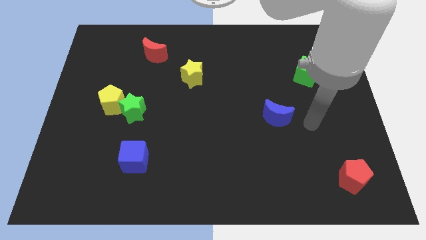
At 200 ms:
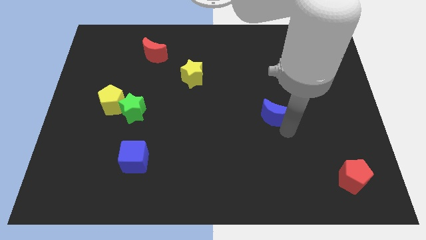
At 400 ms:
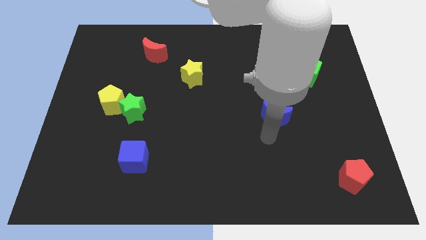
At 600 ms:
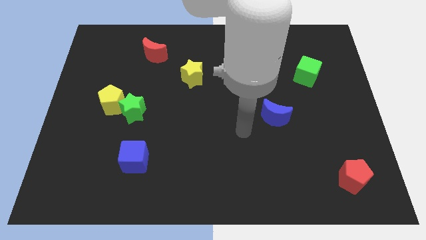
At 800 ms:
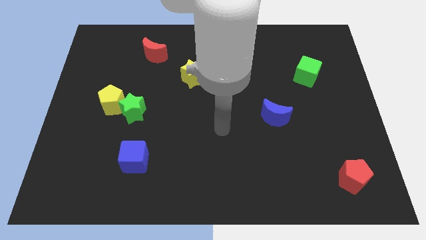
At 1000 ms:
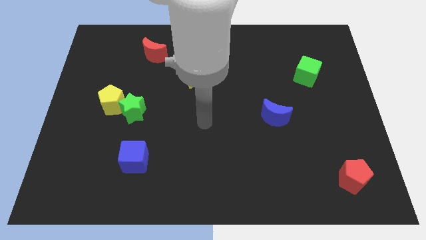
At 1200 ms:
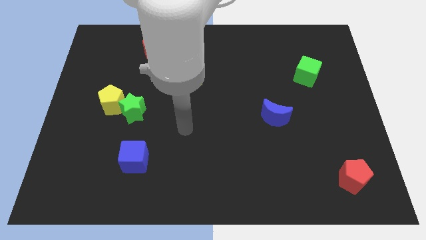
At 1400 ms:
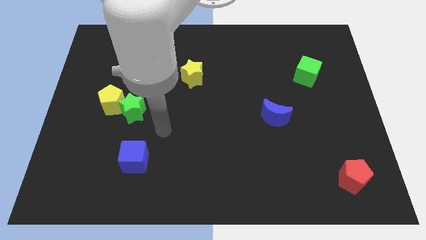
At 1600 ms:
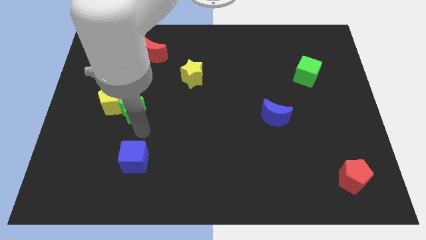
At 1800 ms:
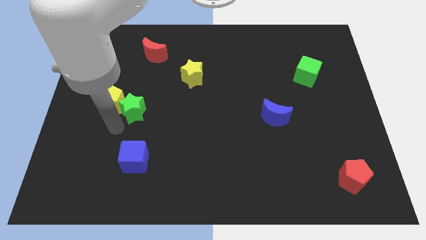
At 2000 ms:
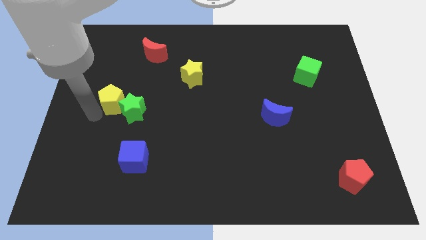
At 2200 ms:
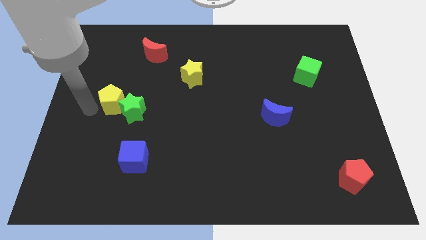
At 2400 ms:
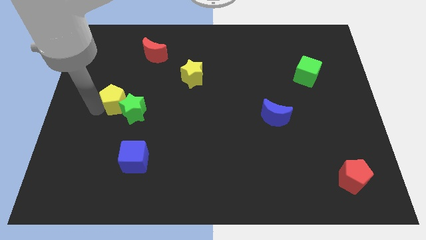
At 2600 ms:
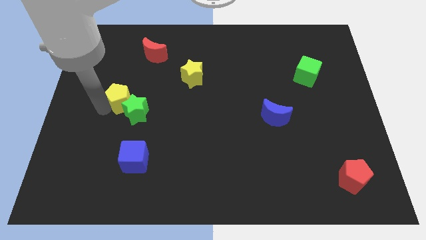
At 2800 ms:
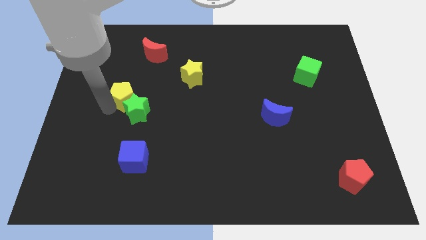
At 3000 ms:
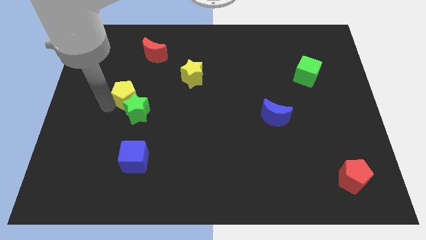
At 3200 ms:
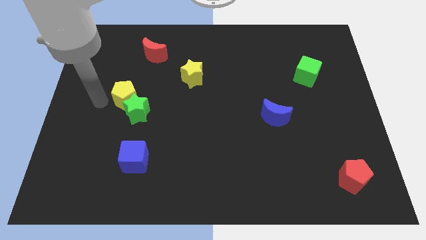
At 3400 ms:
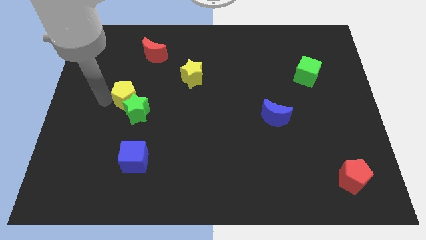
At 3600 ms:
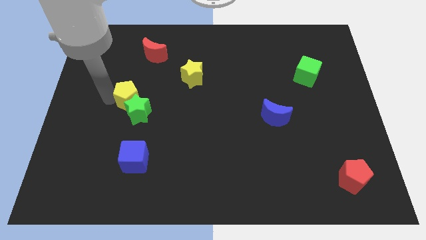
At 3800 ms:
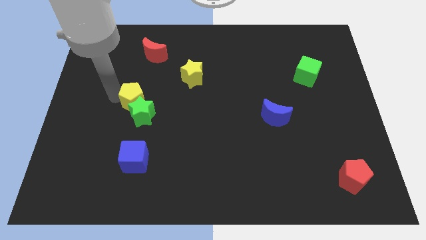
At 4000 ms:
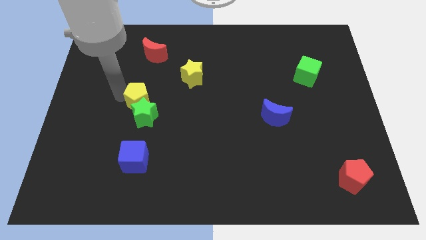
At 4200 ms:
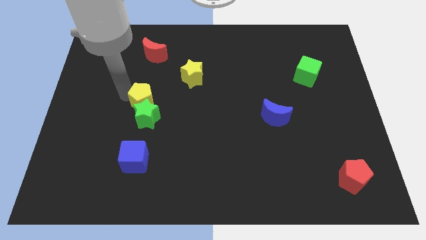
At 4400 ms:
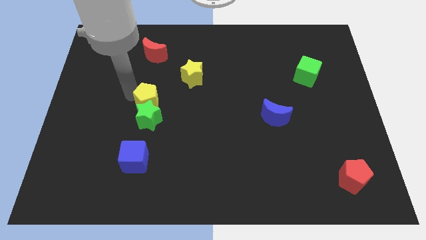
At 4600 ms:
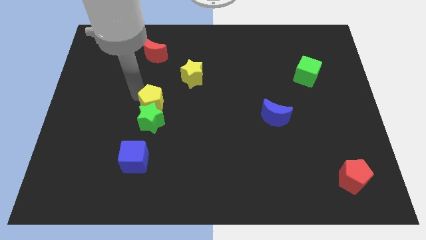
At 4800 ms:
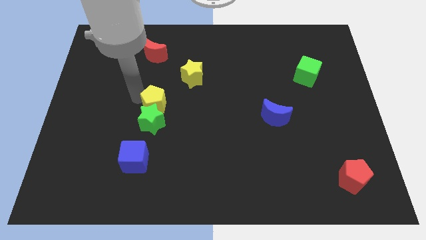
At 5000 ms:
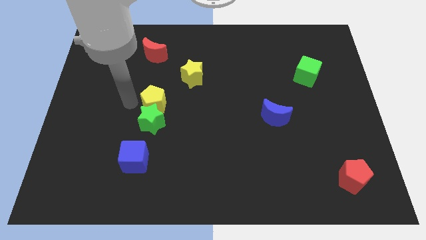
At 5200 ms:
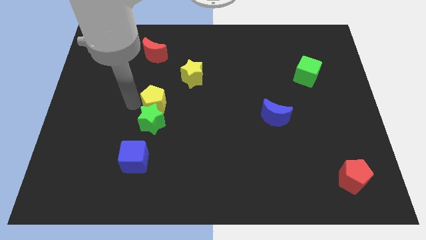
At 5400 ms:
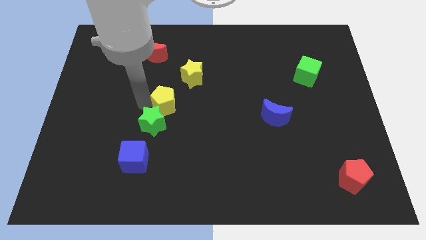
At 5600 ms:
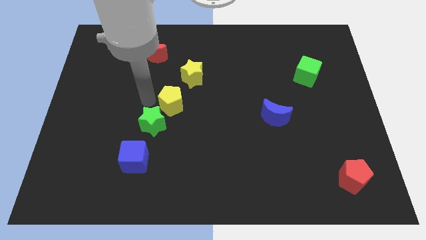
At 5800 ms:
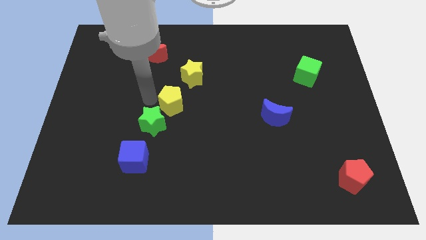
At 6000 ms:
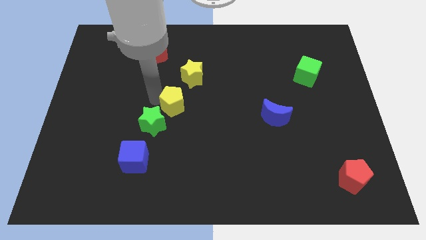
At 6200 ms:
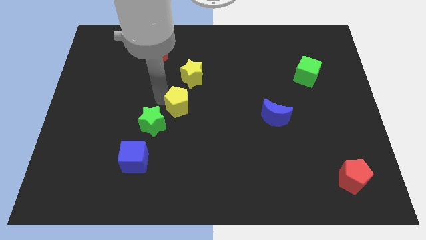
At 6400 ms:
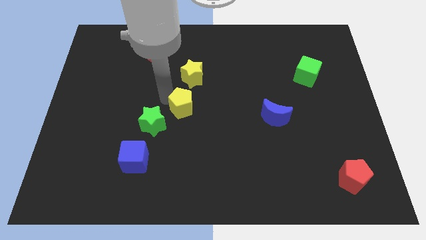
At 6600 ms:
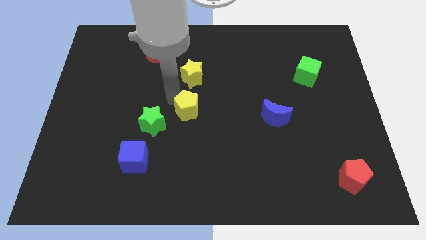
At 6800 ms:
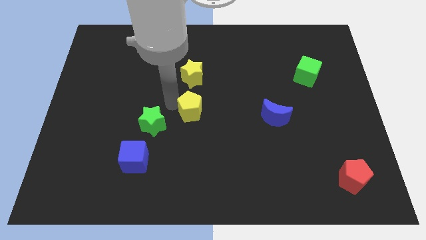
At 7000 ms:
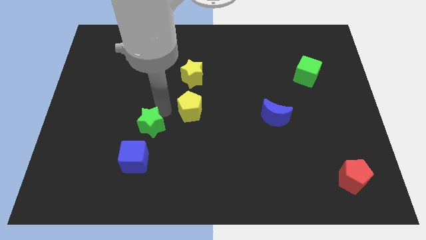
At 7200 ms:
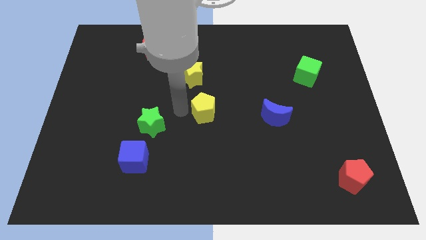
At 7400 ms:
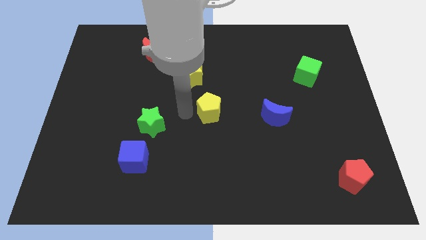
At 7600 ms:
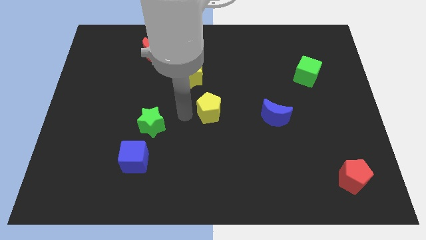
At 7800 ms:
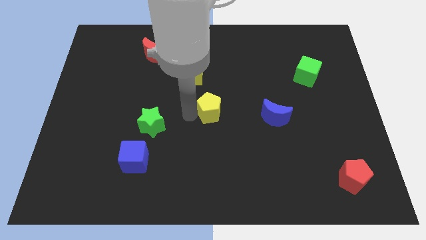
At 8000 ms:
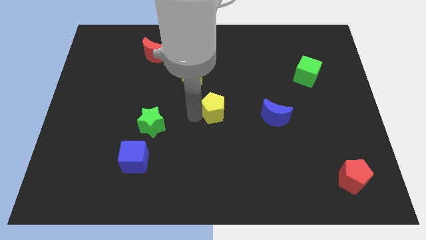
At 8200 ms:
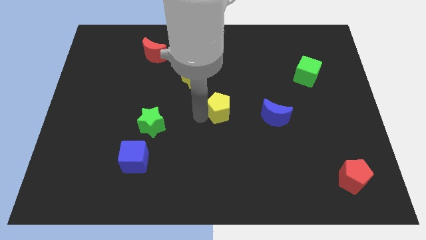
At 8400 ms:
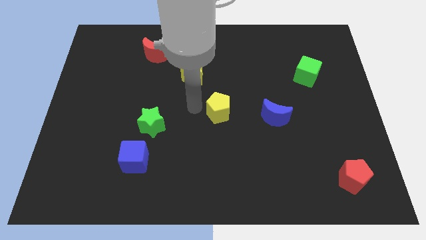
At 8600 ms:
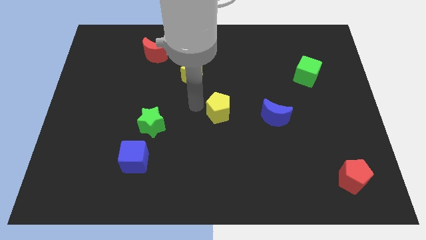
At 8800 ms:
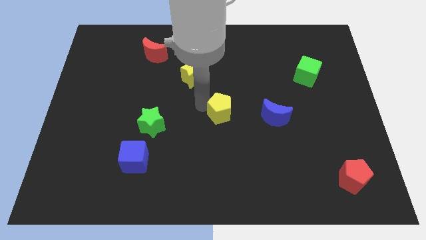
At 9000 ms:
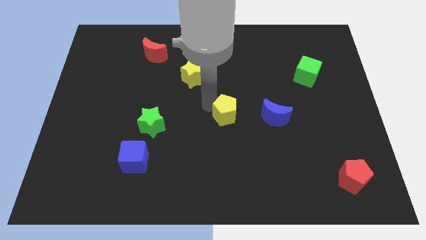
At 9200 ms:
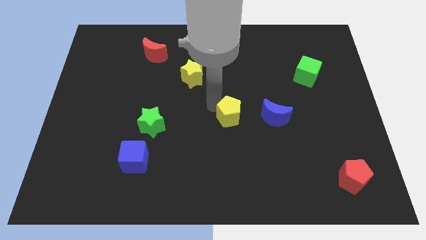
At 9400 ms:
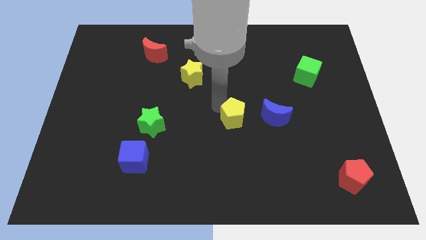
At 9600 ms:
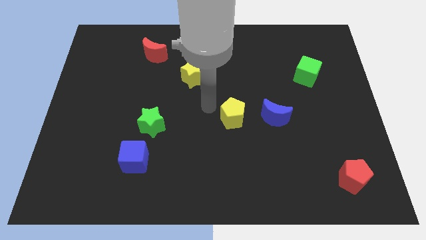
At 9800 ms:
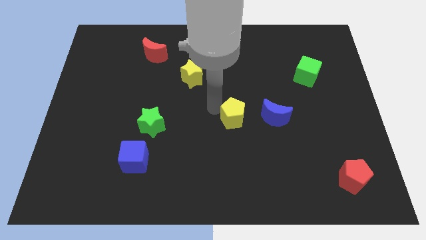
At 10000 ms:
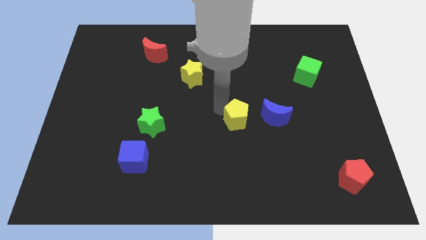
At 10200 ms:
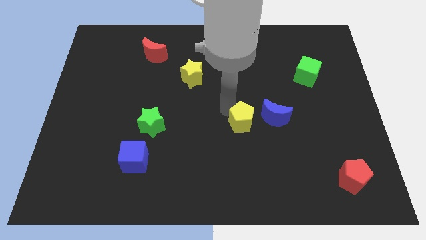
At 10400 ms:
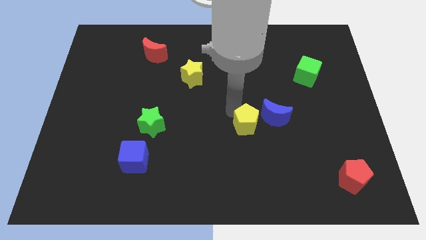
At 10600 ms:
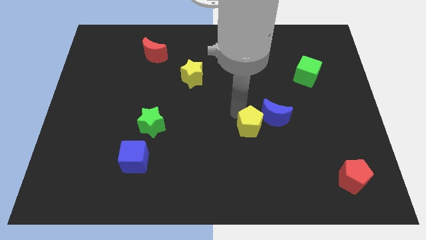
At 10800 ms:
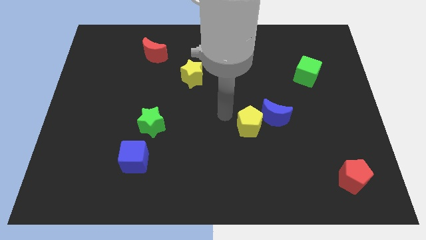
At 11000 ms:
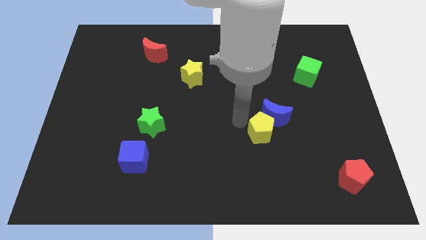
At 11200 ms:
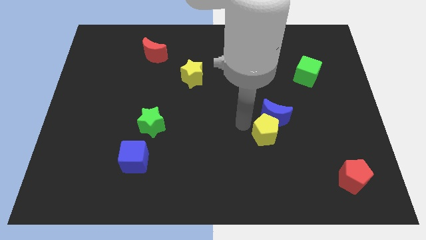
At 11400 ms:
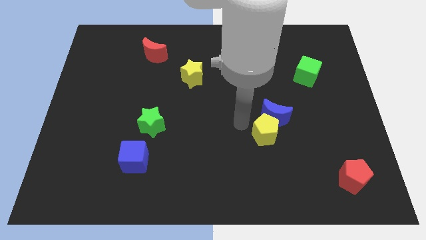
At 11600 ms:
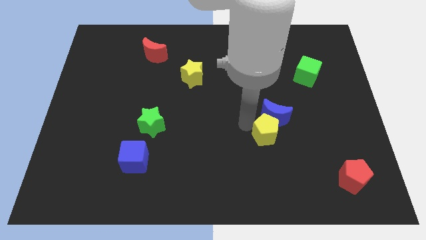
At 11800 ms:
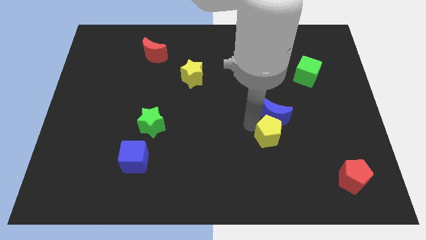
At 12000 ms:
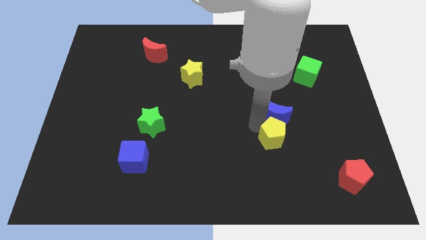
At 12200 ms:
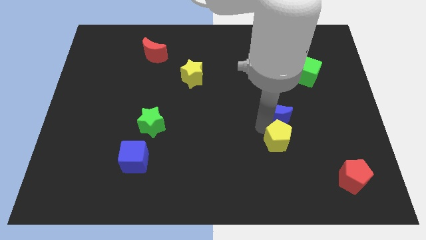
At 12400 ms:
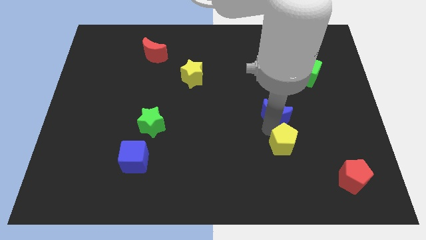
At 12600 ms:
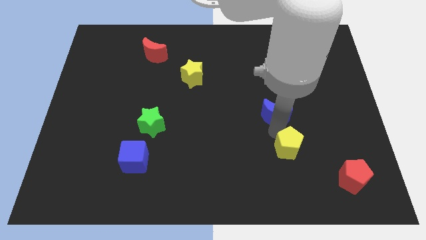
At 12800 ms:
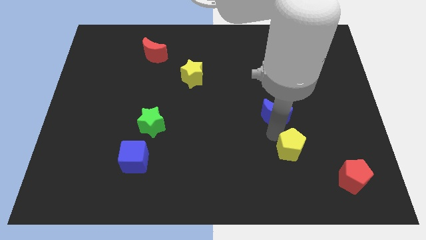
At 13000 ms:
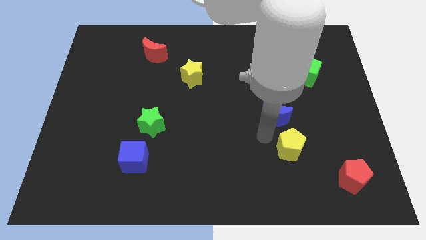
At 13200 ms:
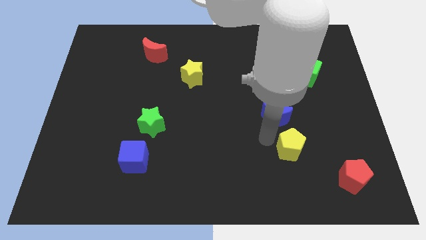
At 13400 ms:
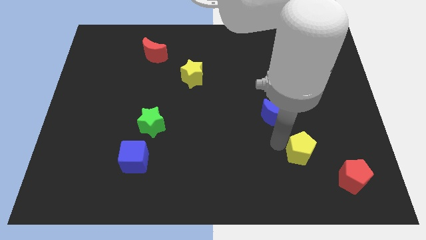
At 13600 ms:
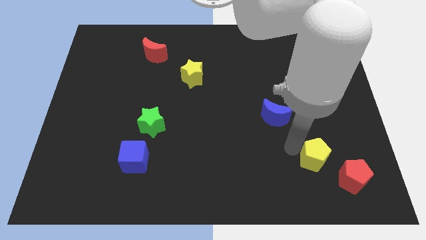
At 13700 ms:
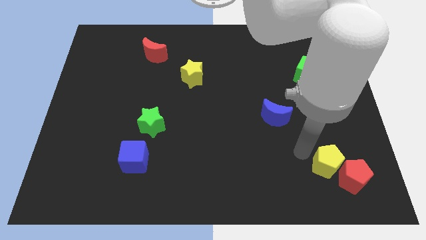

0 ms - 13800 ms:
move the yellow pentagon close to the red pentagon
